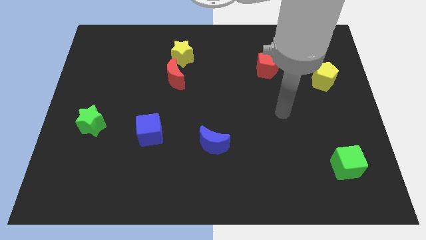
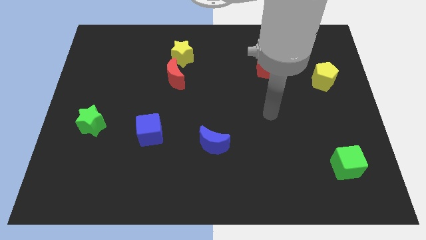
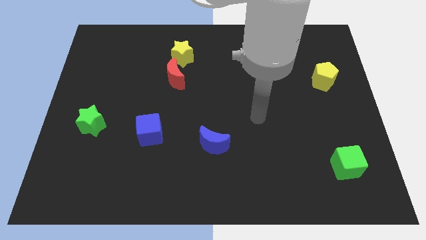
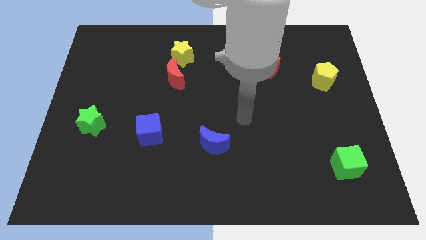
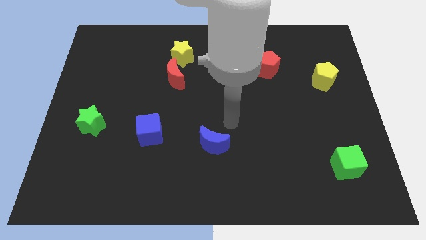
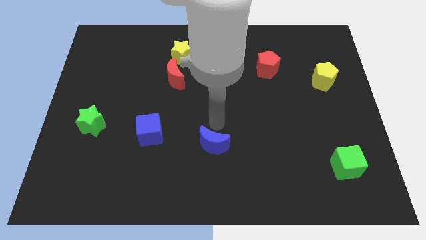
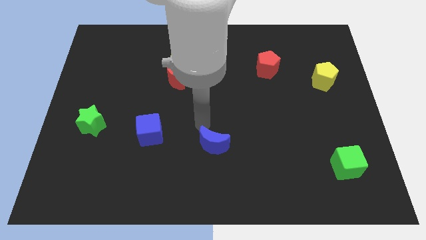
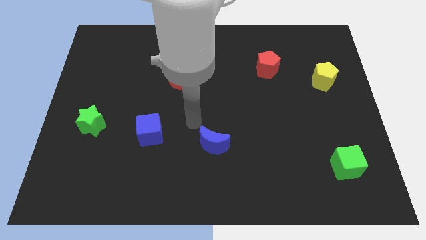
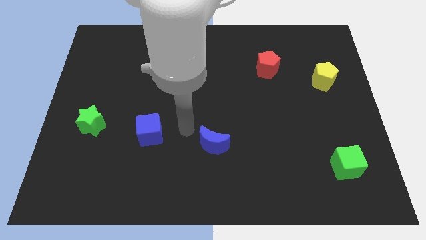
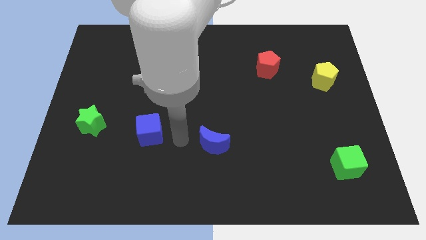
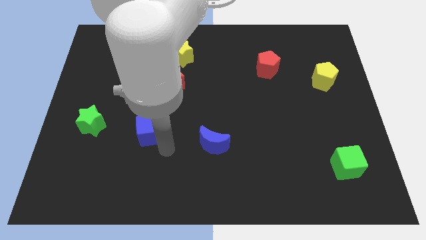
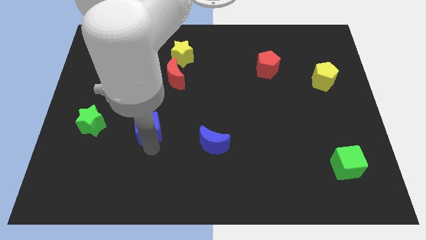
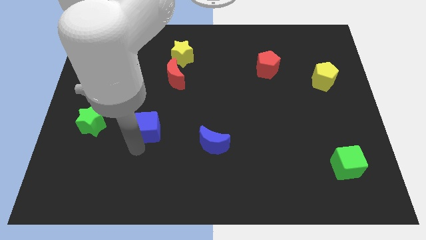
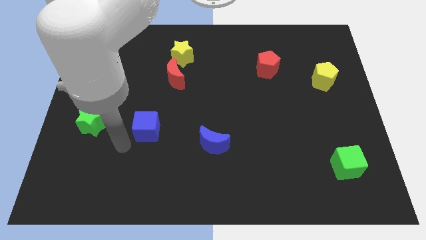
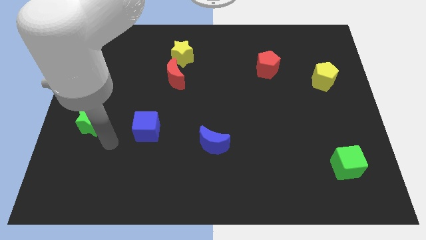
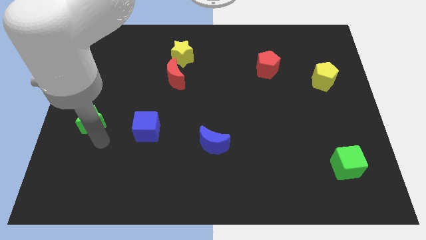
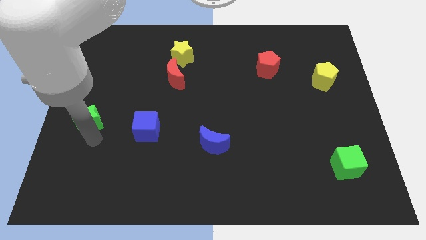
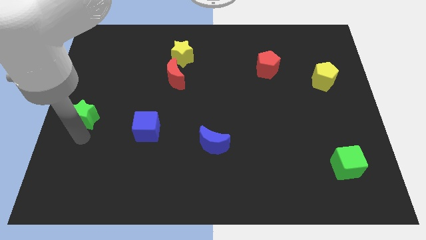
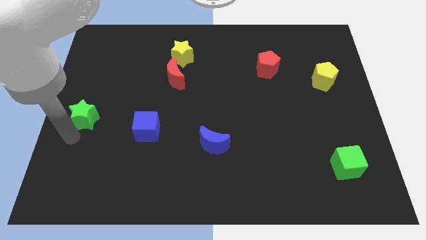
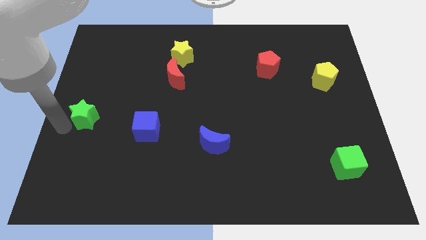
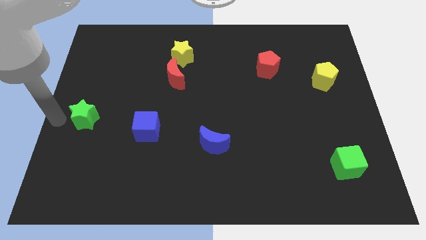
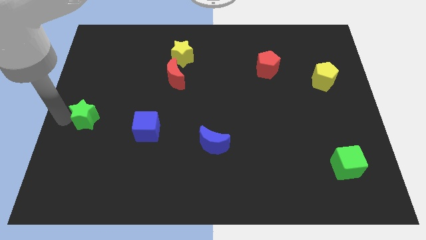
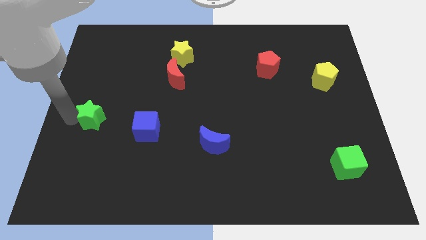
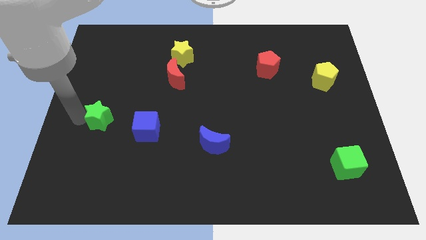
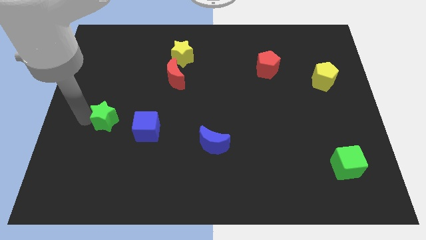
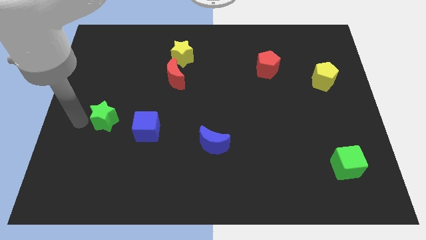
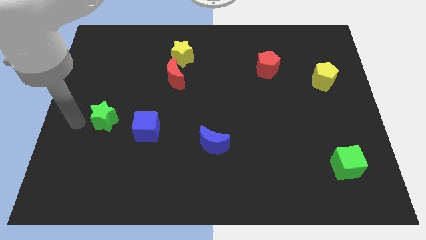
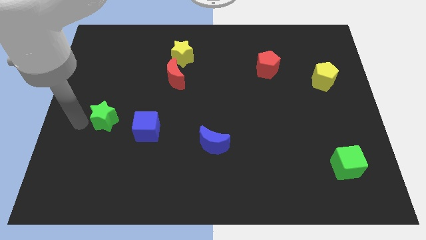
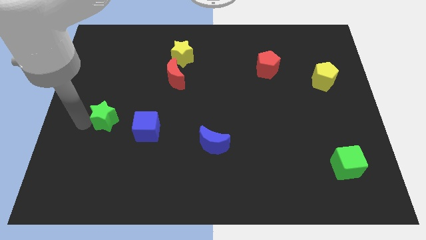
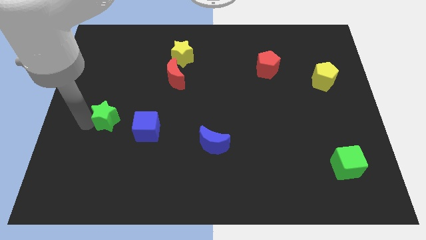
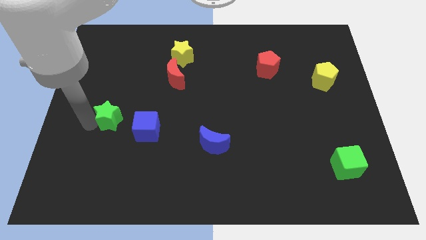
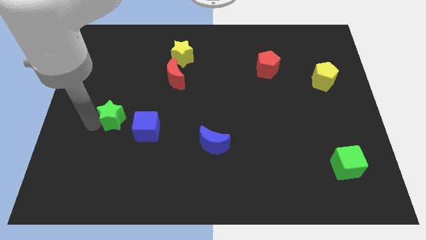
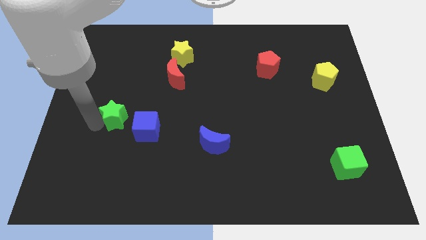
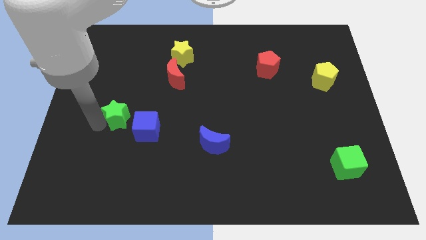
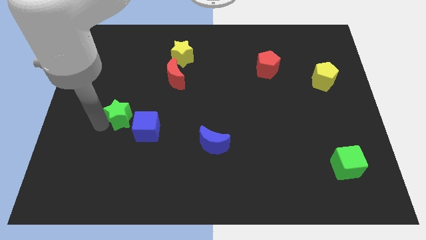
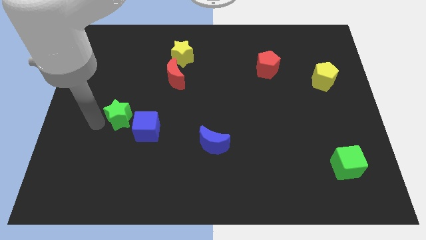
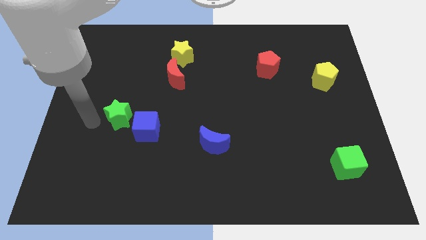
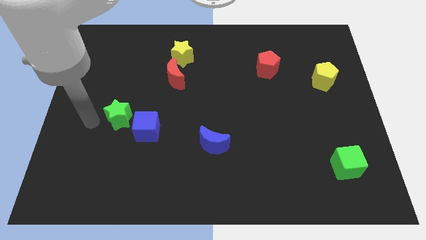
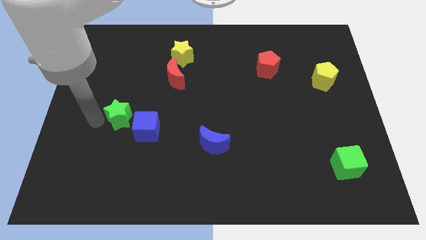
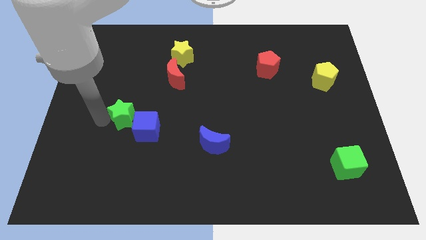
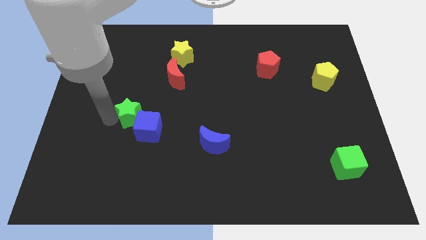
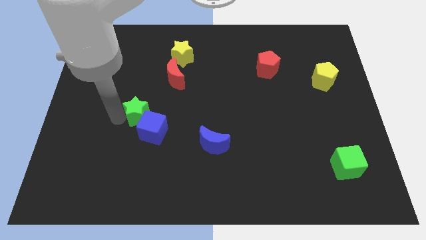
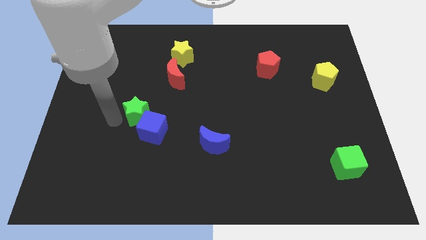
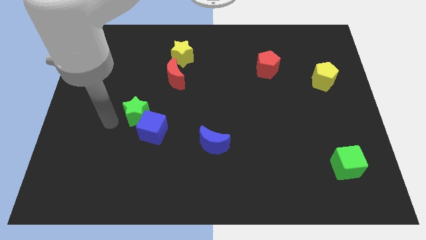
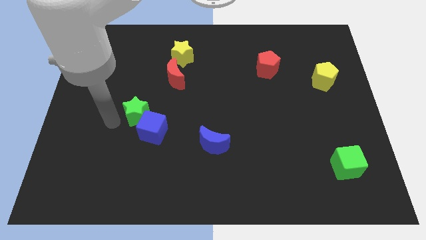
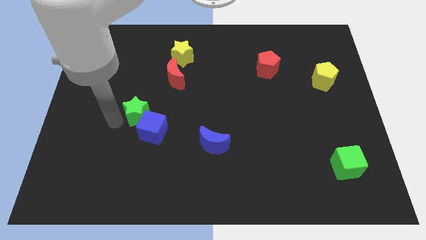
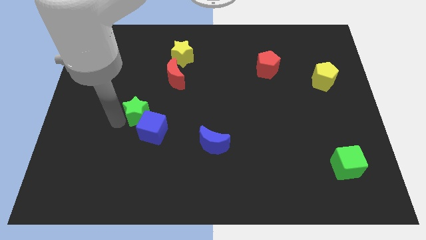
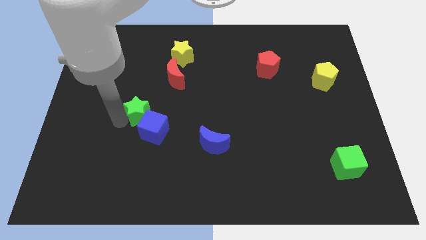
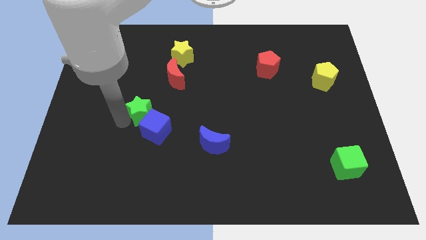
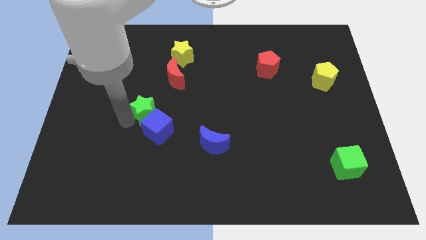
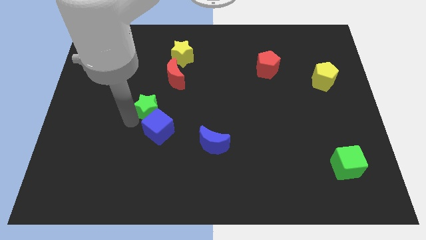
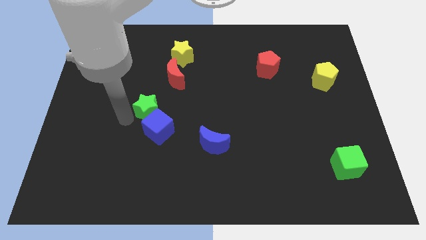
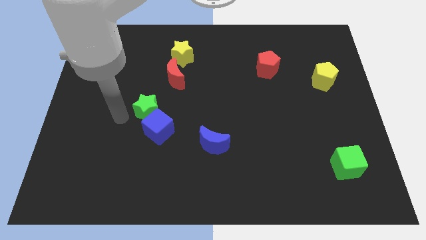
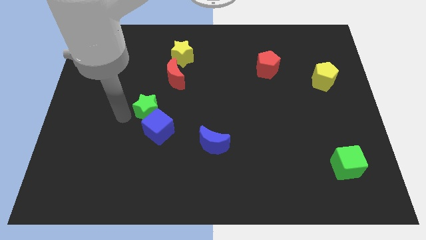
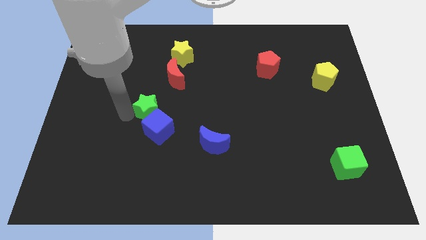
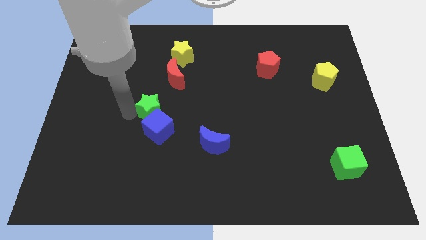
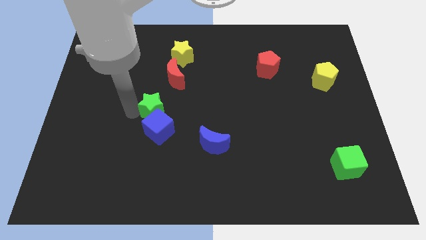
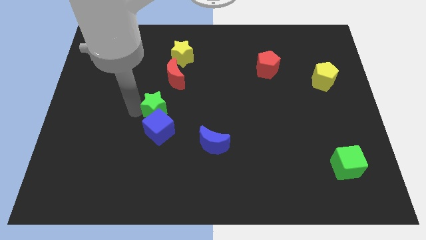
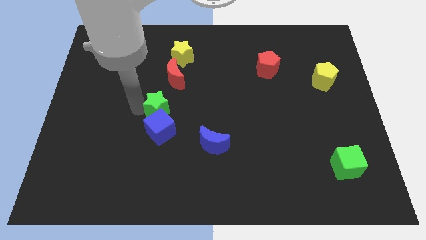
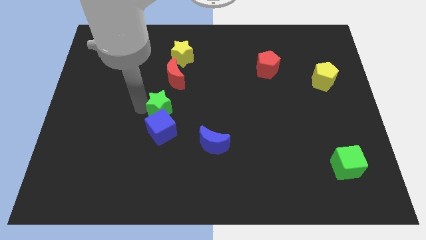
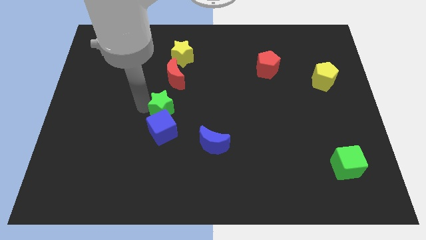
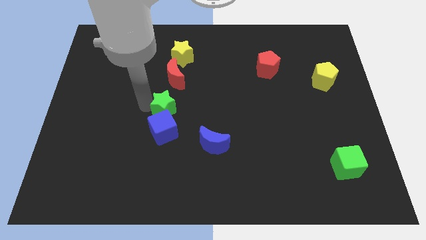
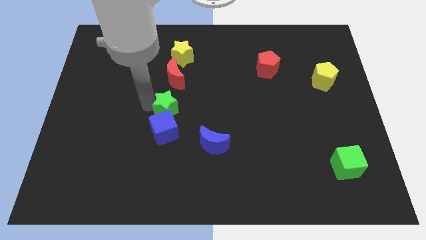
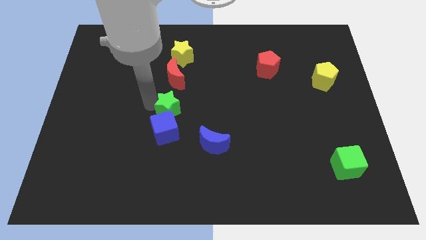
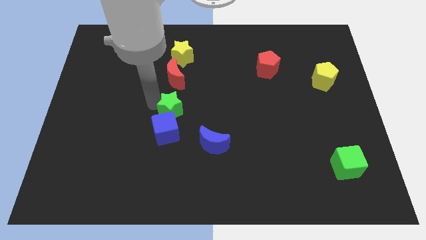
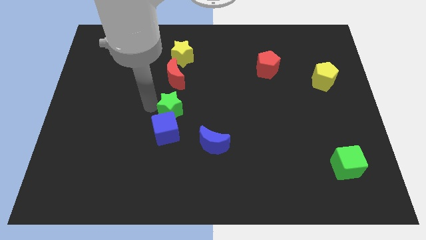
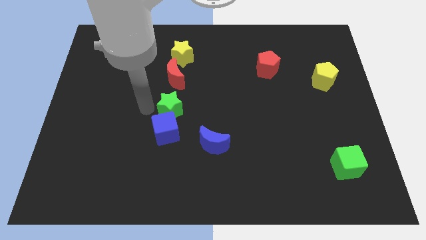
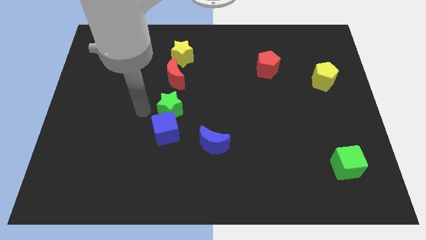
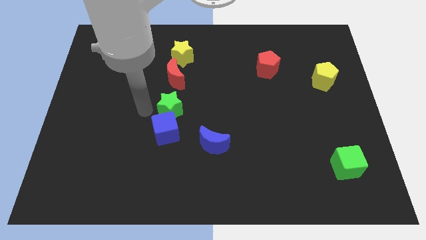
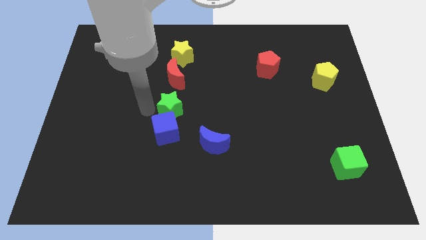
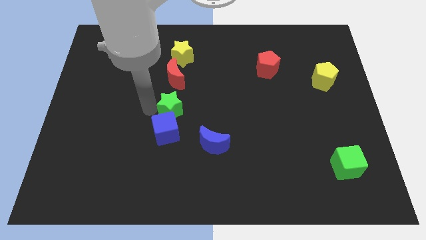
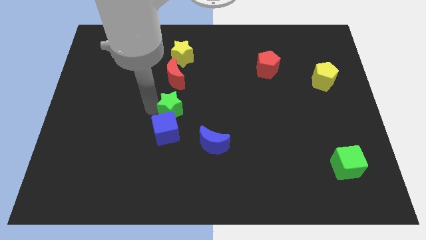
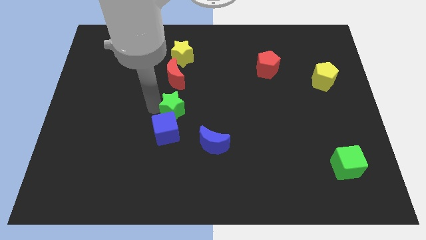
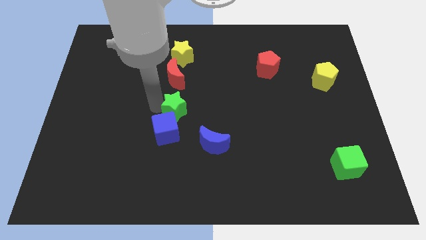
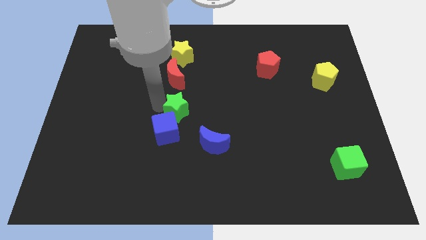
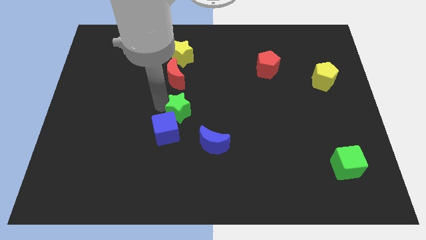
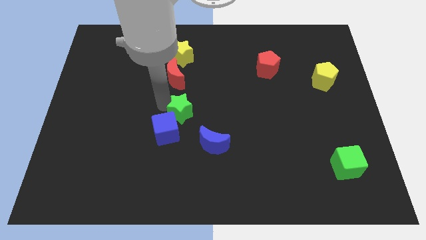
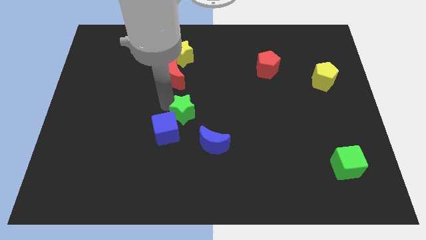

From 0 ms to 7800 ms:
push the green star right
